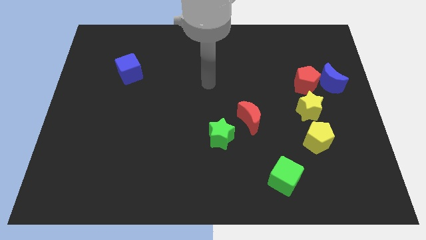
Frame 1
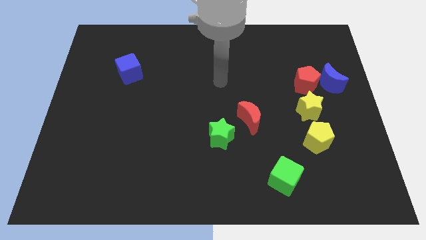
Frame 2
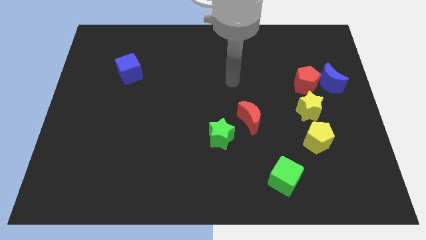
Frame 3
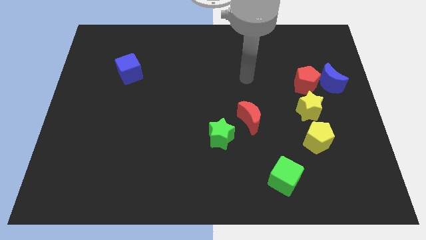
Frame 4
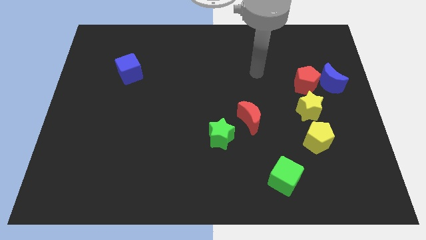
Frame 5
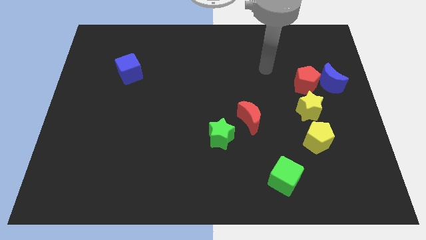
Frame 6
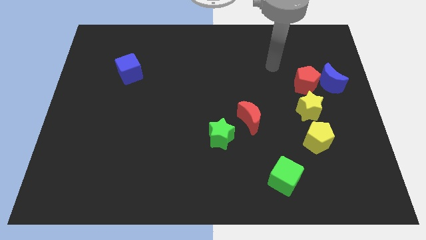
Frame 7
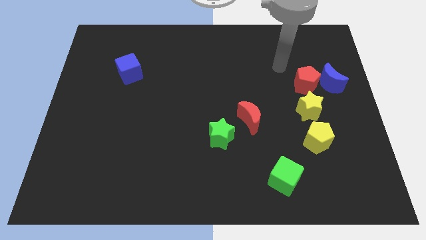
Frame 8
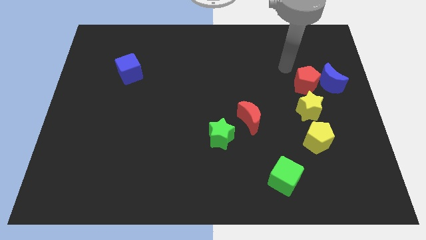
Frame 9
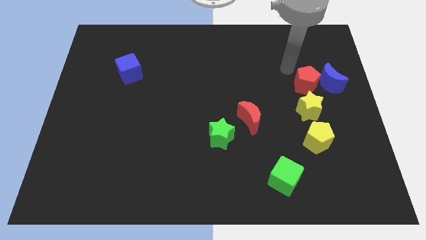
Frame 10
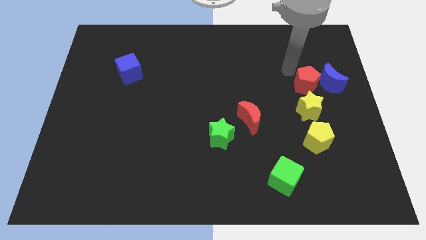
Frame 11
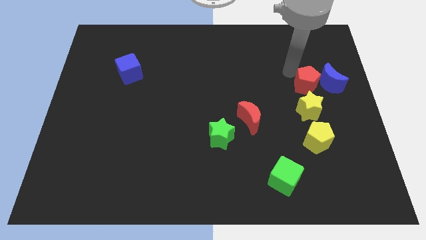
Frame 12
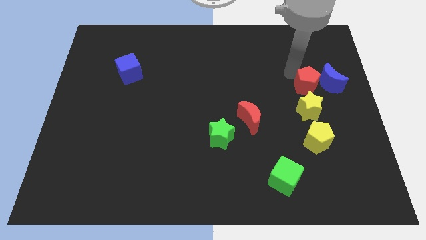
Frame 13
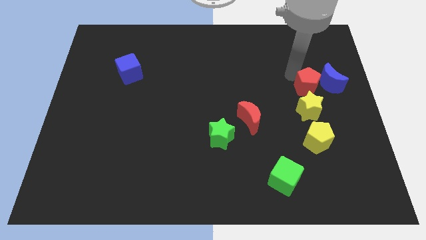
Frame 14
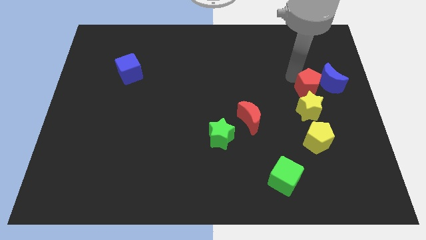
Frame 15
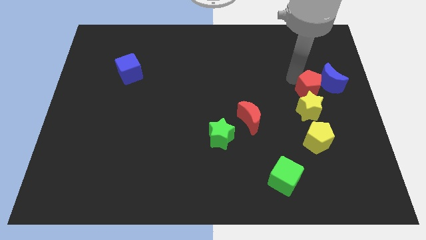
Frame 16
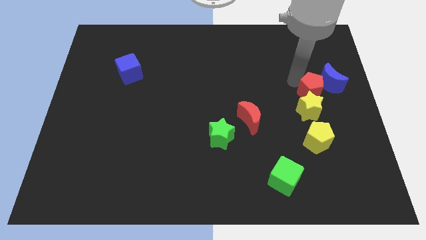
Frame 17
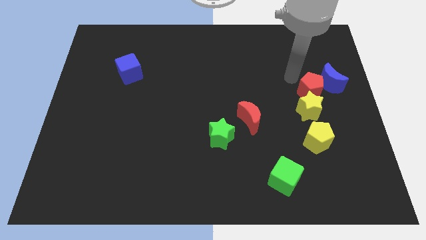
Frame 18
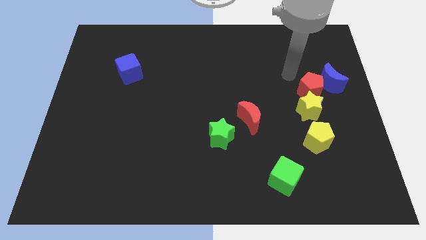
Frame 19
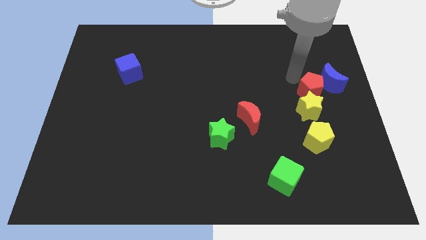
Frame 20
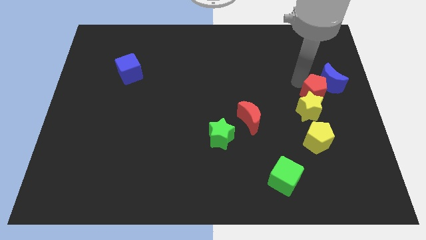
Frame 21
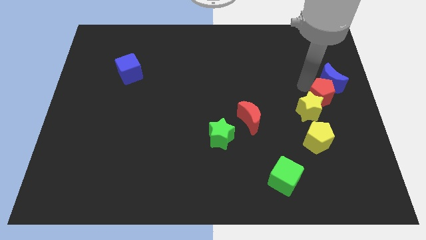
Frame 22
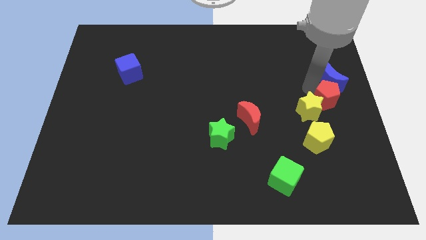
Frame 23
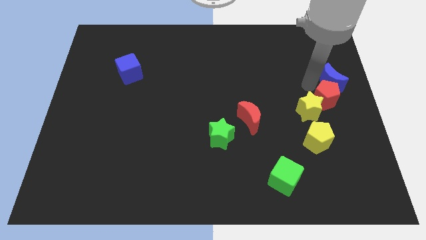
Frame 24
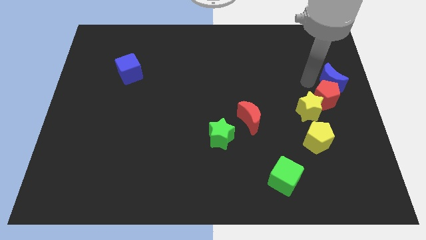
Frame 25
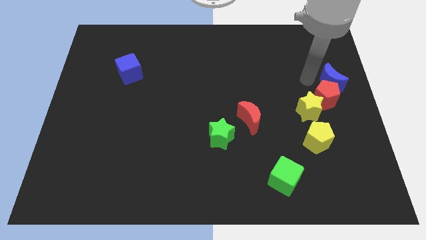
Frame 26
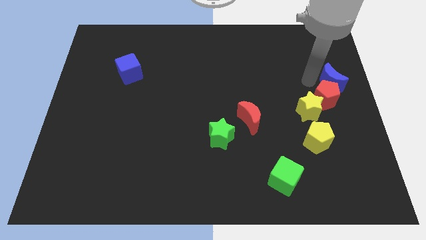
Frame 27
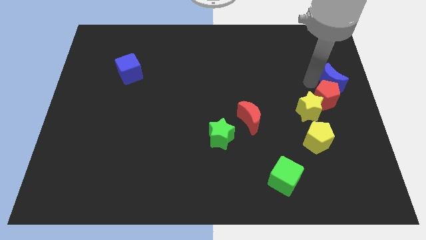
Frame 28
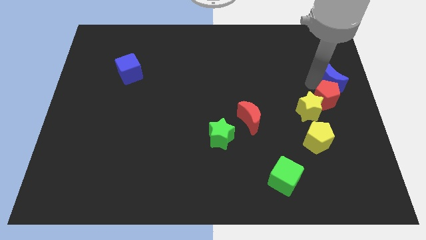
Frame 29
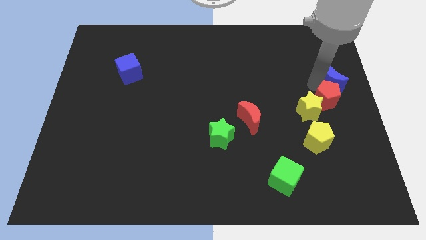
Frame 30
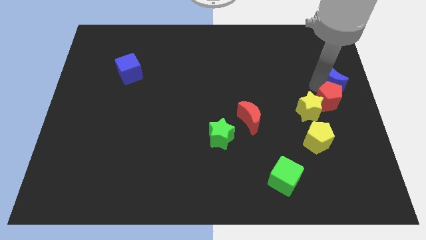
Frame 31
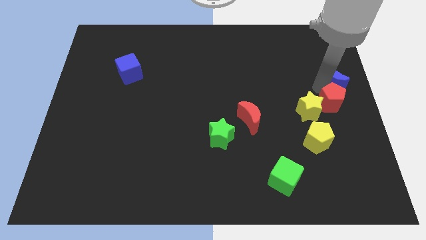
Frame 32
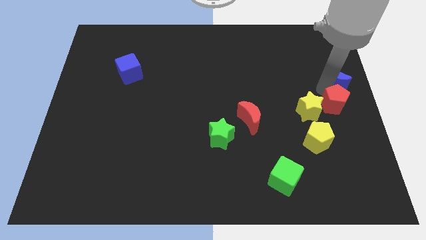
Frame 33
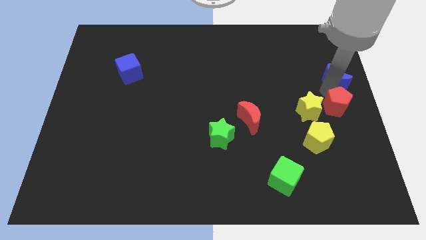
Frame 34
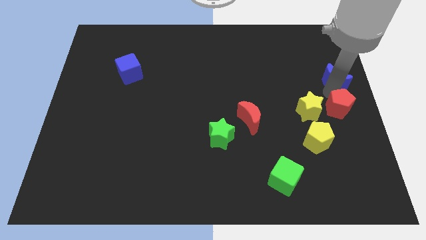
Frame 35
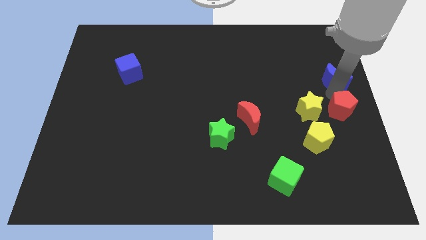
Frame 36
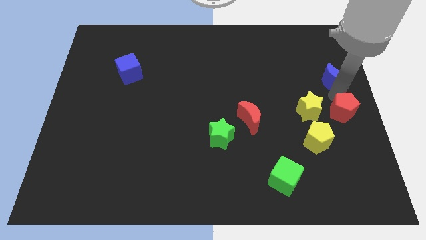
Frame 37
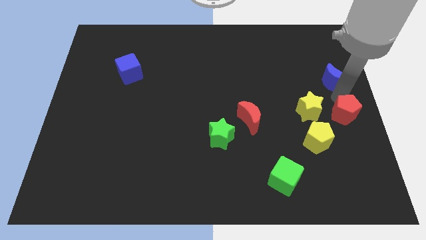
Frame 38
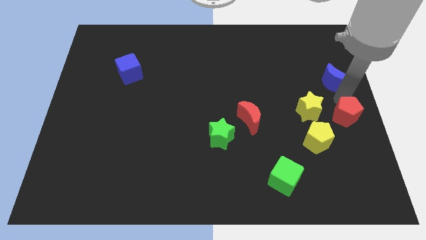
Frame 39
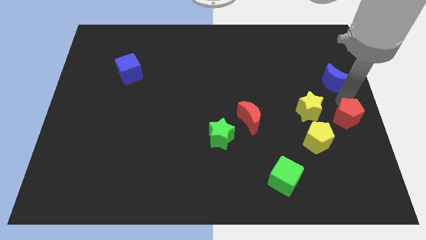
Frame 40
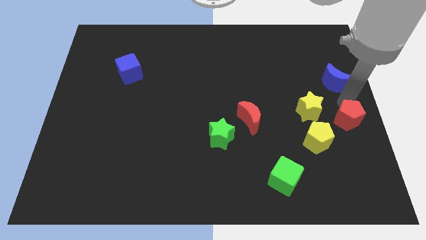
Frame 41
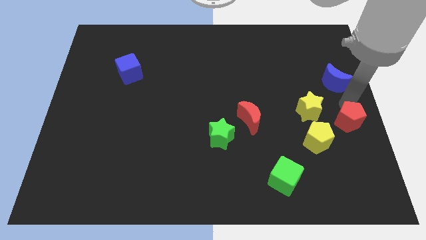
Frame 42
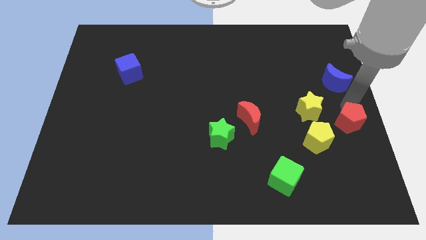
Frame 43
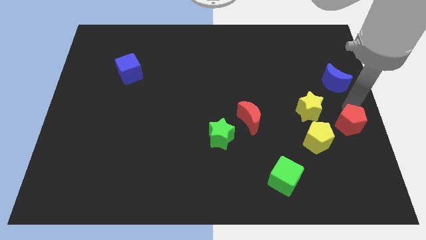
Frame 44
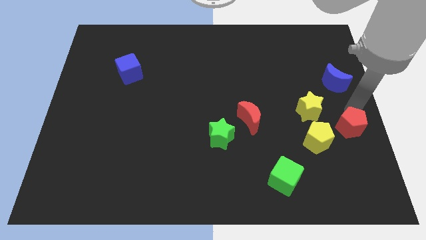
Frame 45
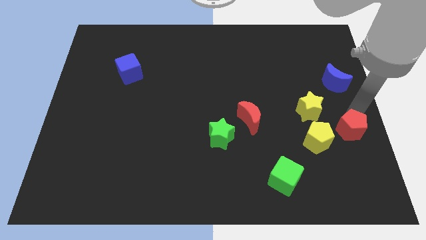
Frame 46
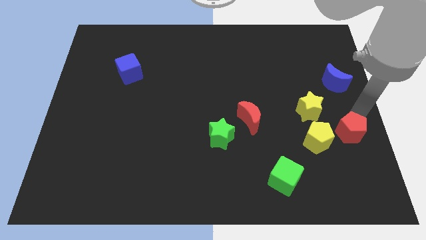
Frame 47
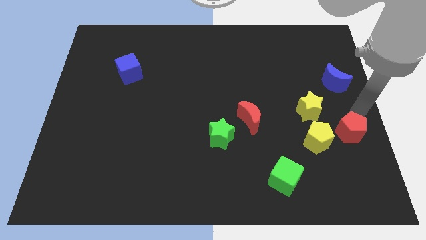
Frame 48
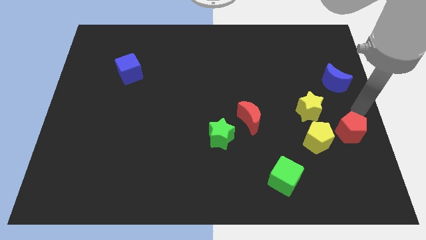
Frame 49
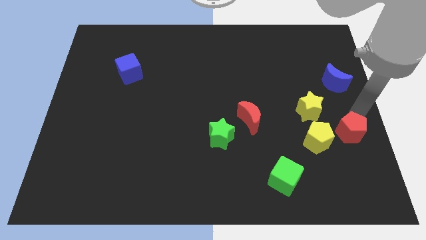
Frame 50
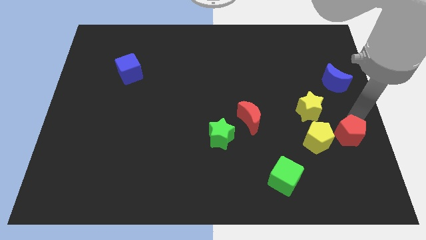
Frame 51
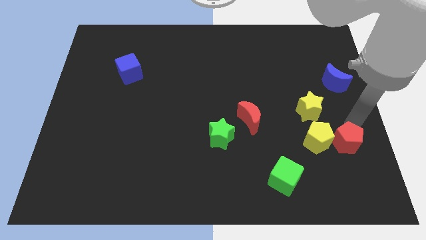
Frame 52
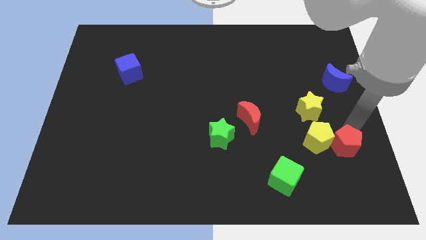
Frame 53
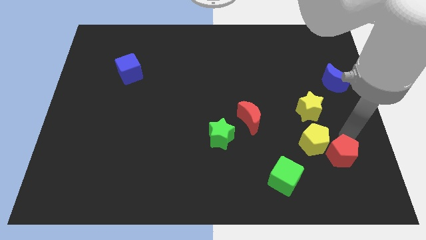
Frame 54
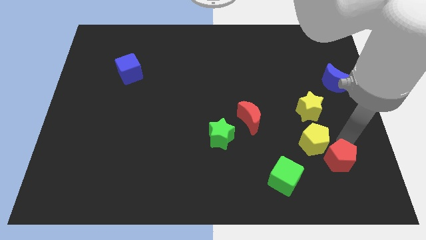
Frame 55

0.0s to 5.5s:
slide the red pentagon right of the green cube

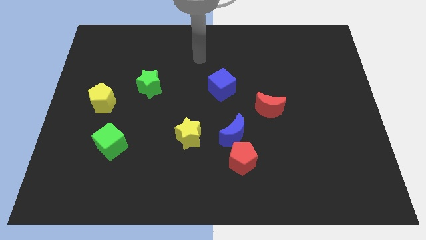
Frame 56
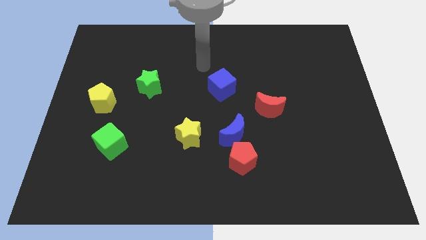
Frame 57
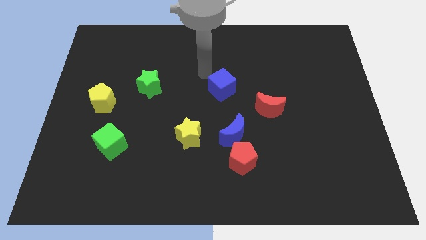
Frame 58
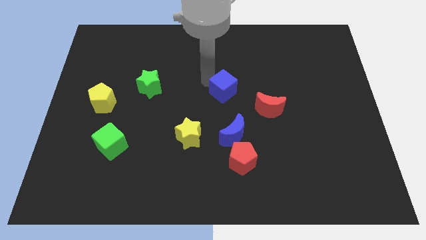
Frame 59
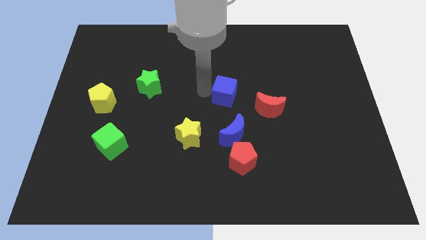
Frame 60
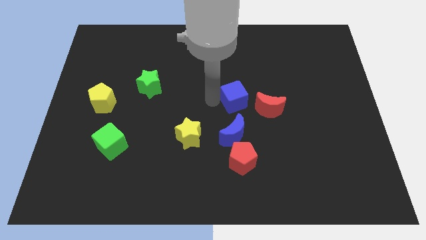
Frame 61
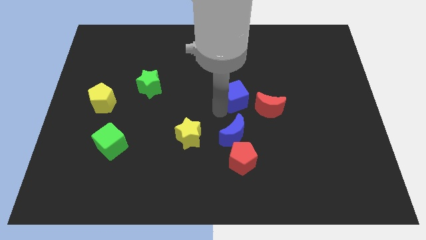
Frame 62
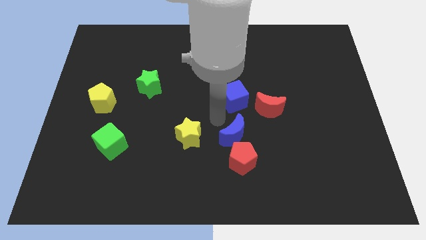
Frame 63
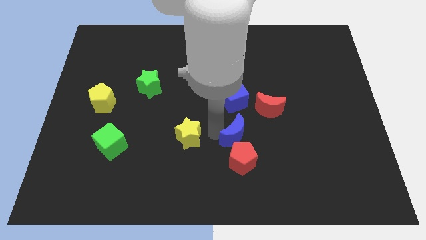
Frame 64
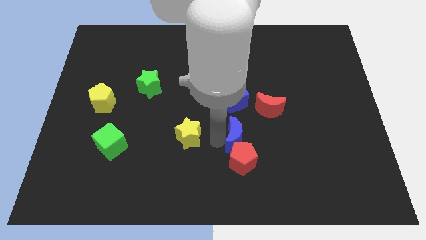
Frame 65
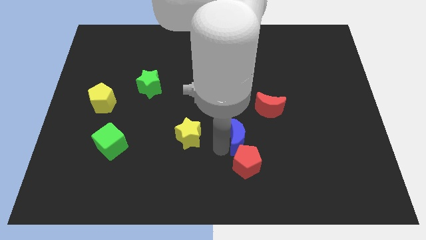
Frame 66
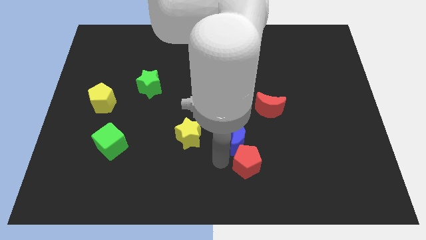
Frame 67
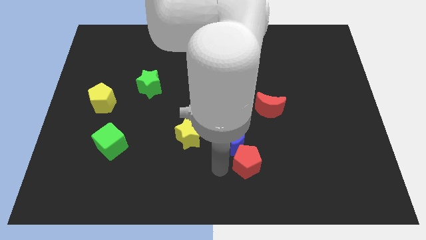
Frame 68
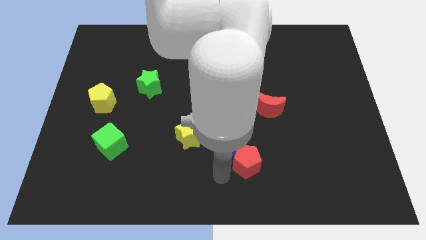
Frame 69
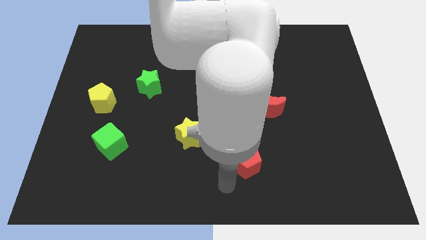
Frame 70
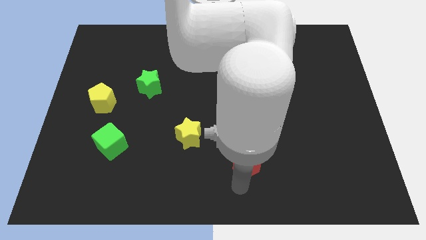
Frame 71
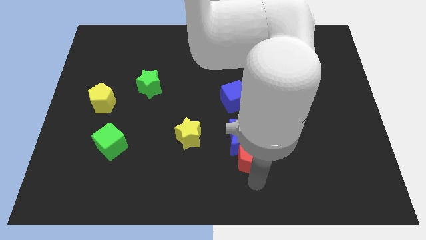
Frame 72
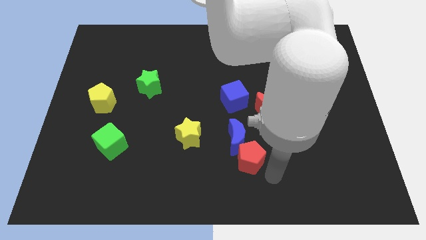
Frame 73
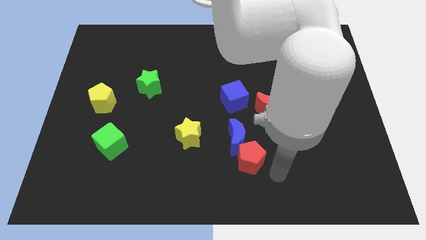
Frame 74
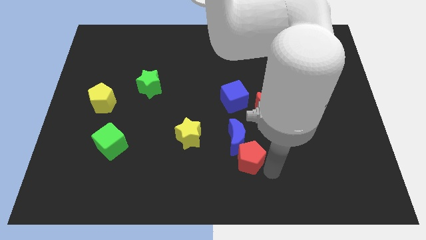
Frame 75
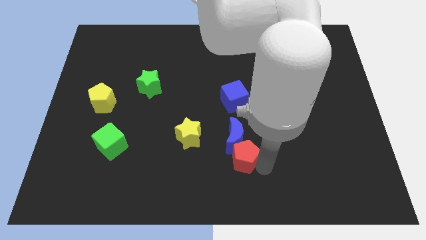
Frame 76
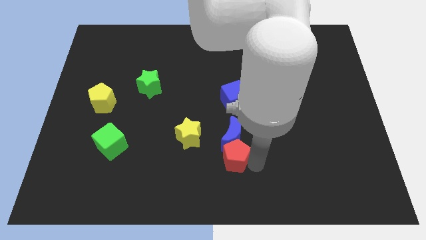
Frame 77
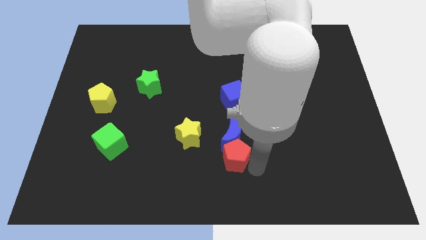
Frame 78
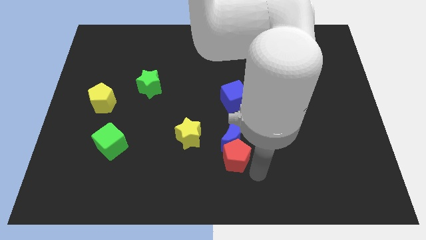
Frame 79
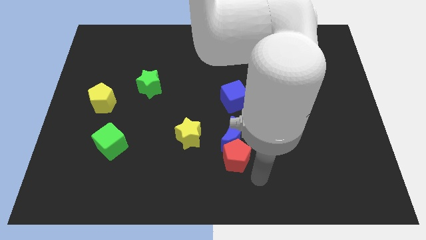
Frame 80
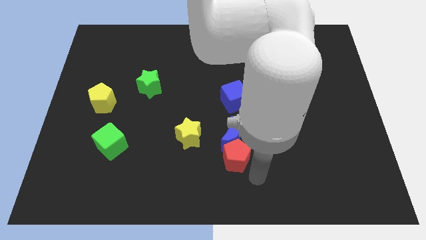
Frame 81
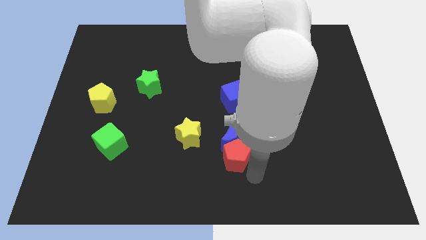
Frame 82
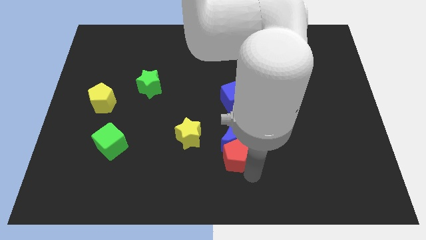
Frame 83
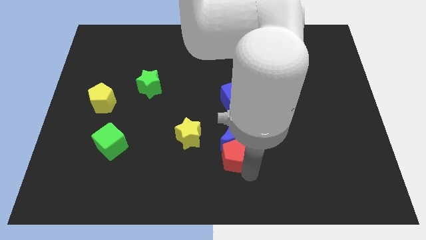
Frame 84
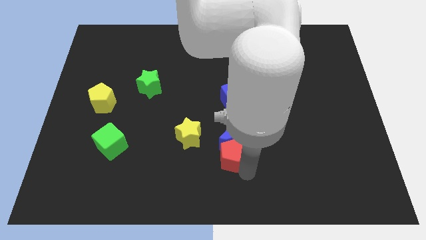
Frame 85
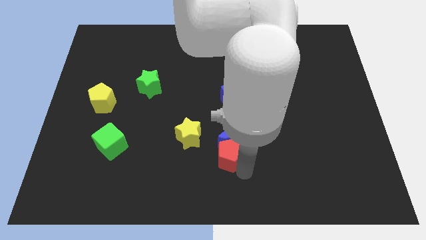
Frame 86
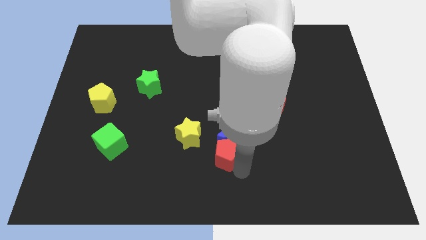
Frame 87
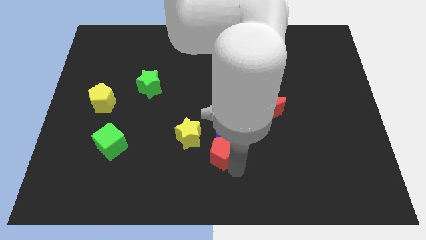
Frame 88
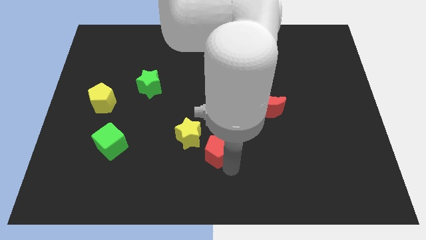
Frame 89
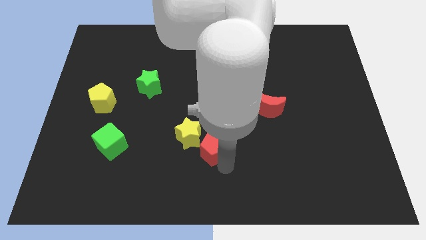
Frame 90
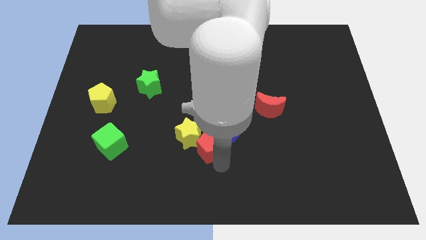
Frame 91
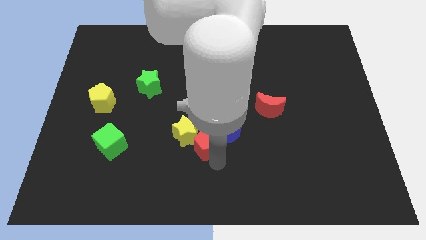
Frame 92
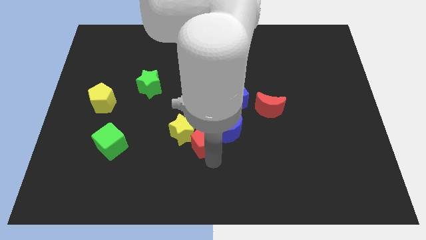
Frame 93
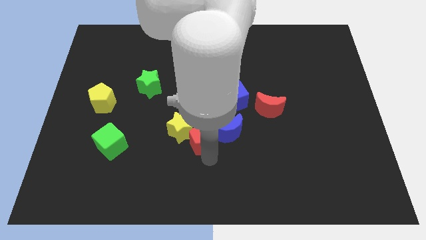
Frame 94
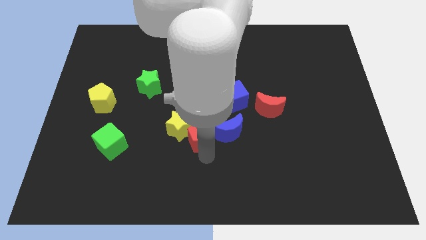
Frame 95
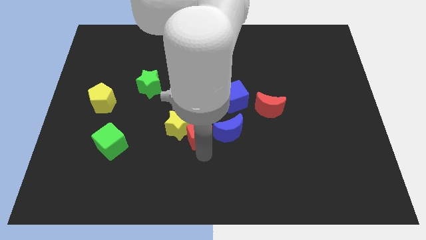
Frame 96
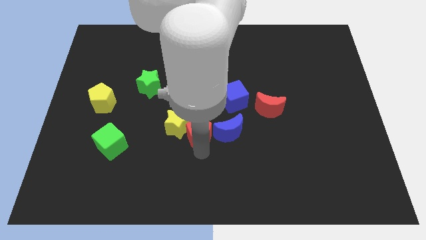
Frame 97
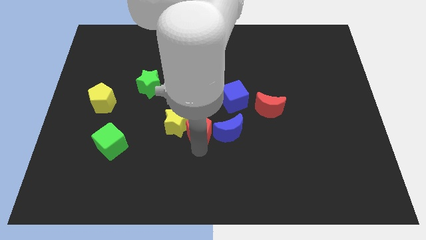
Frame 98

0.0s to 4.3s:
slide the red pentagon to the top left of the blue moon
